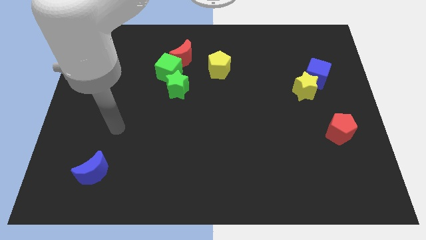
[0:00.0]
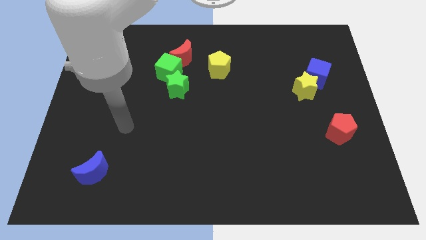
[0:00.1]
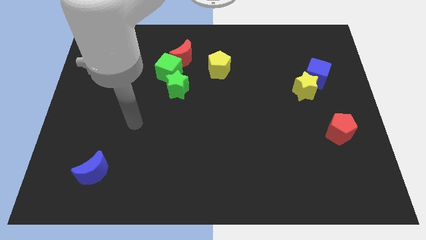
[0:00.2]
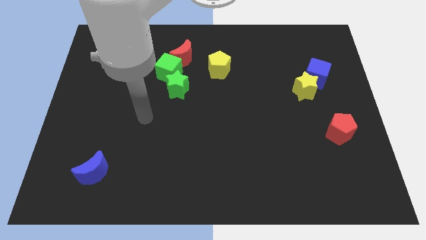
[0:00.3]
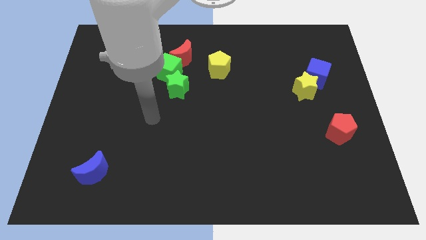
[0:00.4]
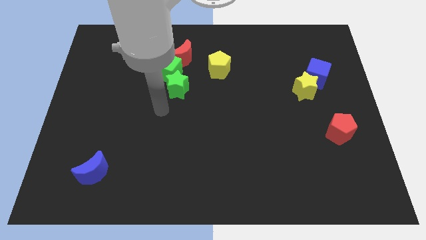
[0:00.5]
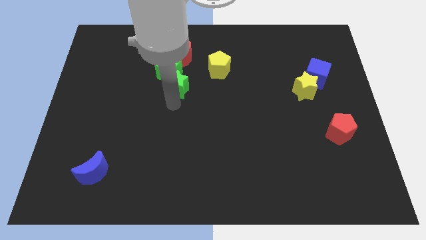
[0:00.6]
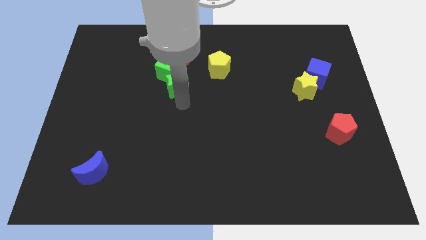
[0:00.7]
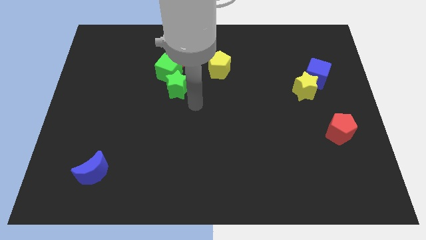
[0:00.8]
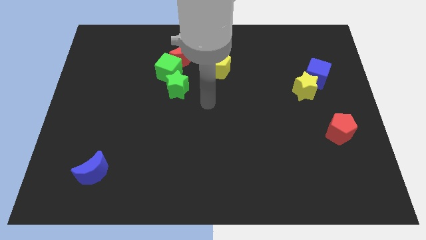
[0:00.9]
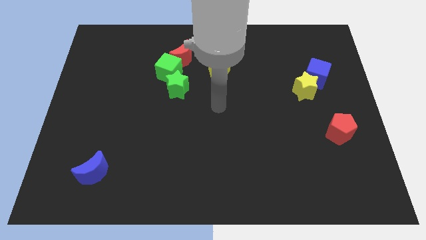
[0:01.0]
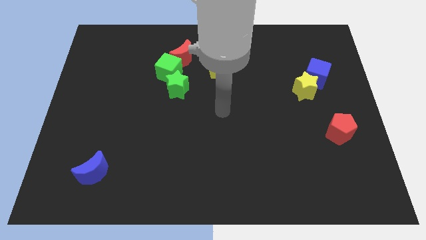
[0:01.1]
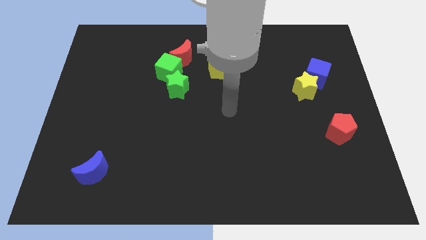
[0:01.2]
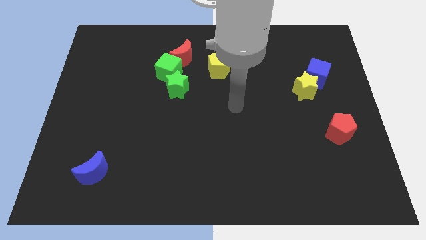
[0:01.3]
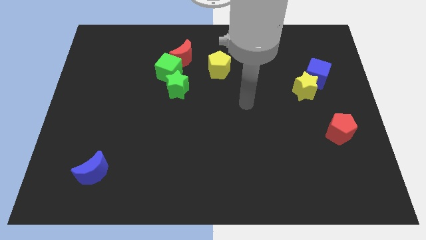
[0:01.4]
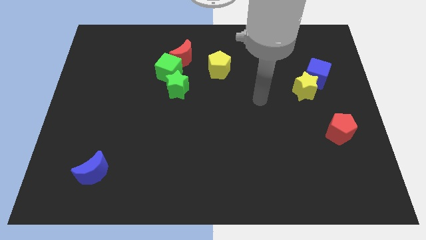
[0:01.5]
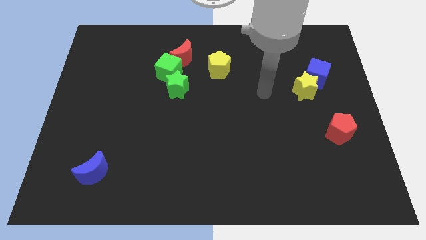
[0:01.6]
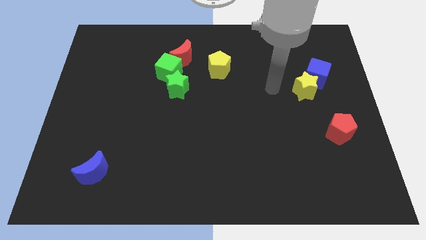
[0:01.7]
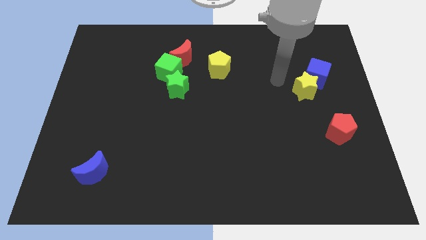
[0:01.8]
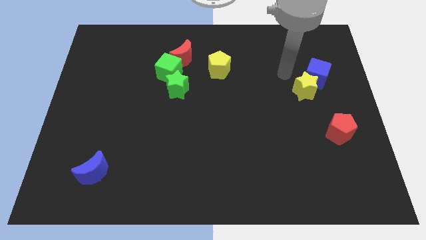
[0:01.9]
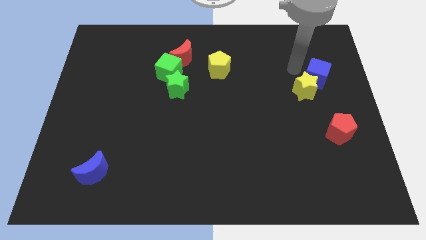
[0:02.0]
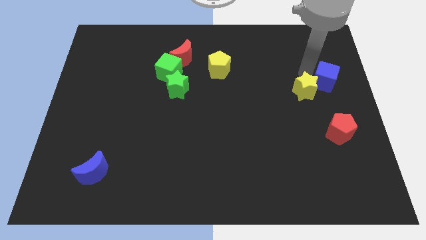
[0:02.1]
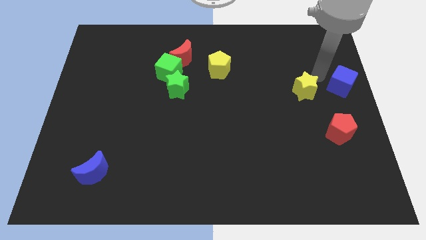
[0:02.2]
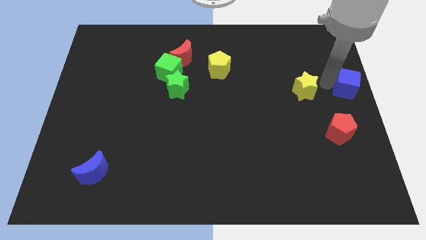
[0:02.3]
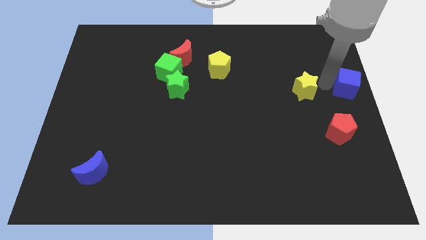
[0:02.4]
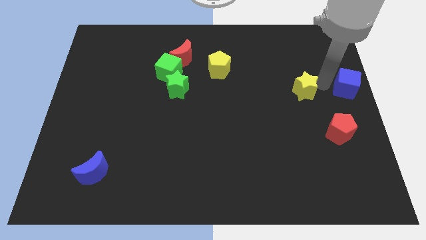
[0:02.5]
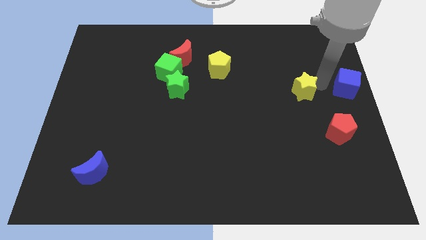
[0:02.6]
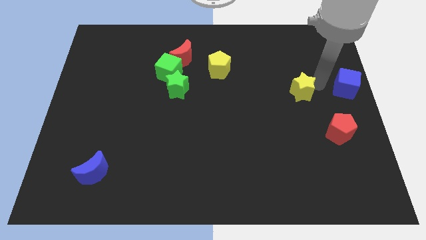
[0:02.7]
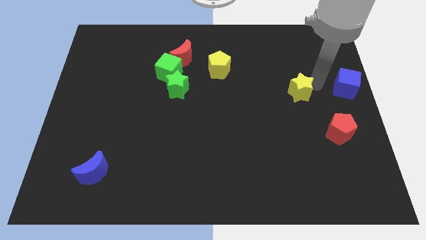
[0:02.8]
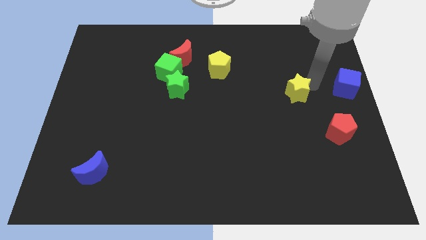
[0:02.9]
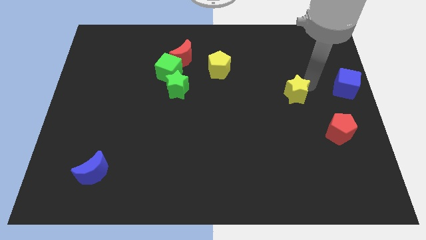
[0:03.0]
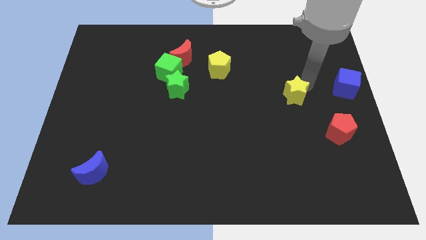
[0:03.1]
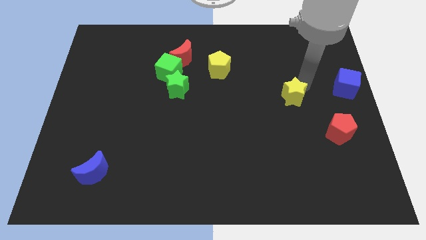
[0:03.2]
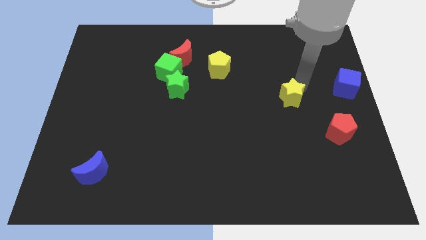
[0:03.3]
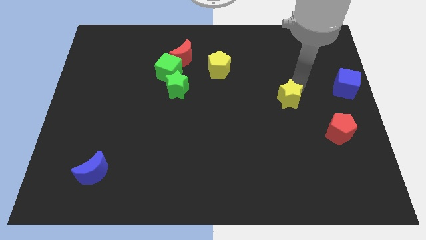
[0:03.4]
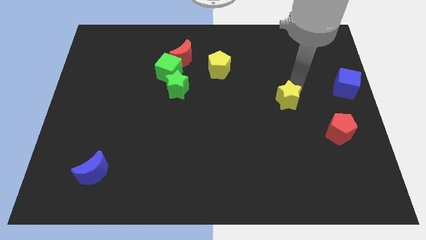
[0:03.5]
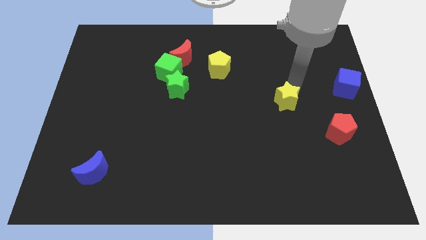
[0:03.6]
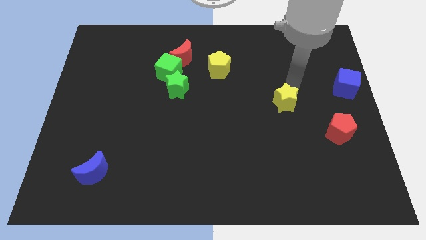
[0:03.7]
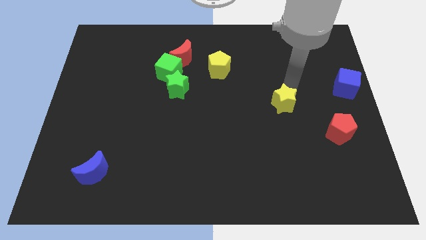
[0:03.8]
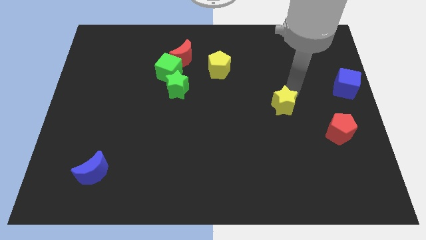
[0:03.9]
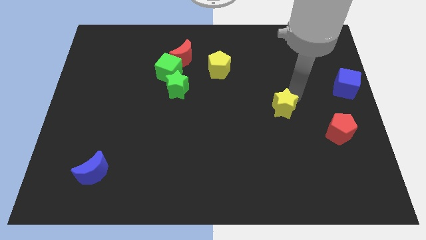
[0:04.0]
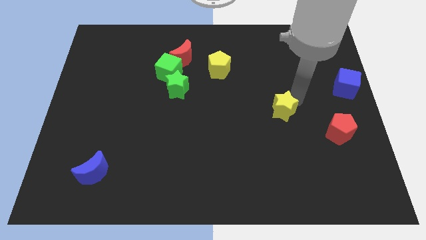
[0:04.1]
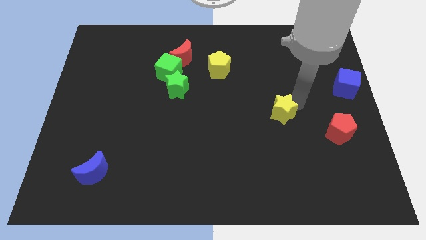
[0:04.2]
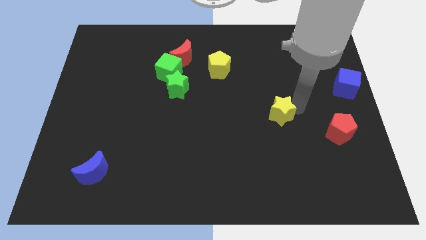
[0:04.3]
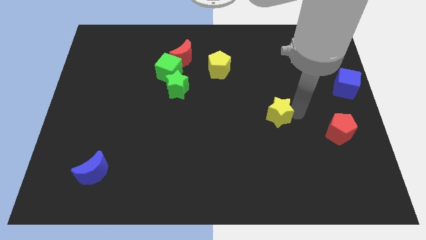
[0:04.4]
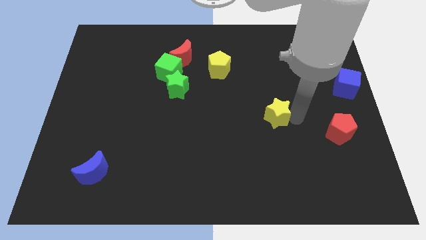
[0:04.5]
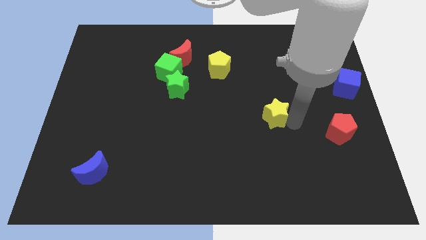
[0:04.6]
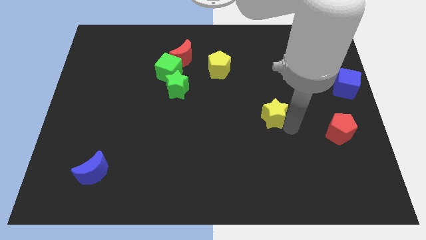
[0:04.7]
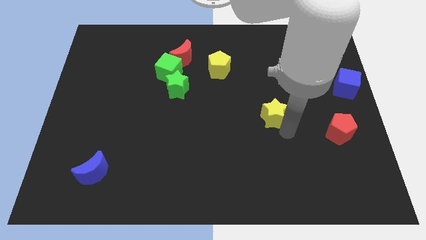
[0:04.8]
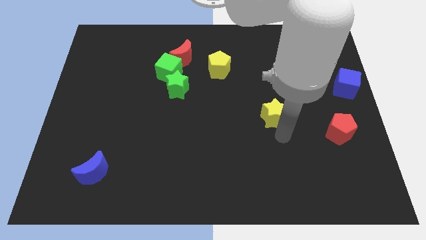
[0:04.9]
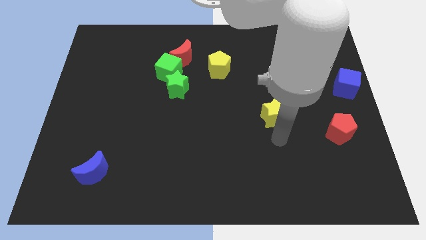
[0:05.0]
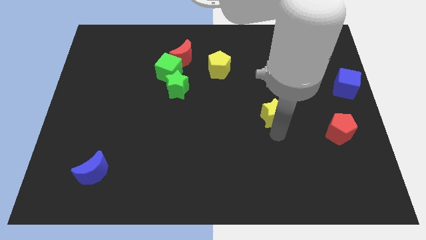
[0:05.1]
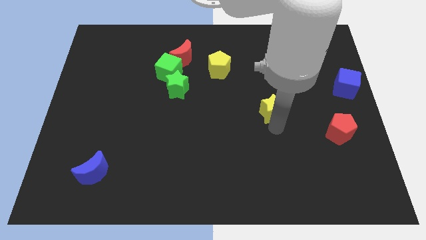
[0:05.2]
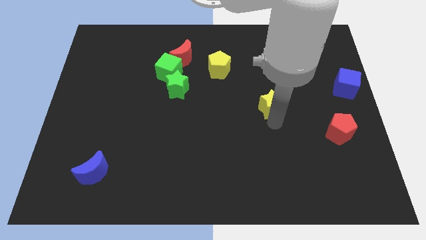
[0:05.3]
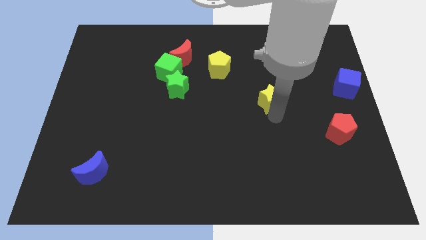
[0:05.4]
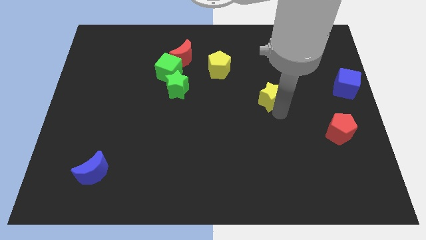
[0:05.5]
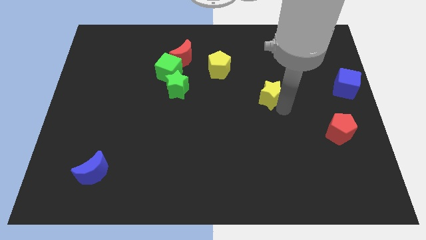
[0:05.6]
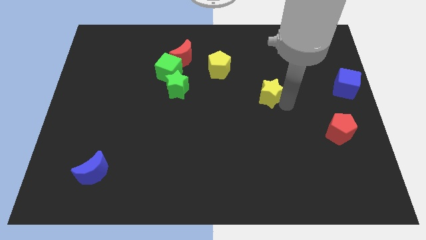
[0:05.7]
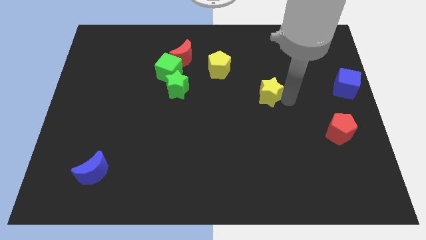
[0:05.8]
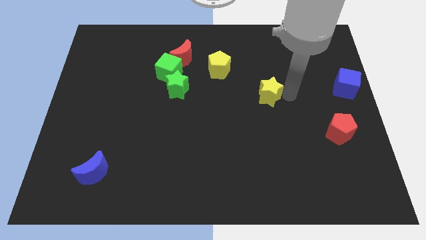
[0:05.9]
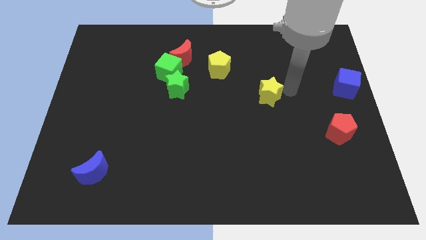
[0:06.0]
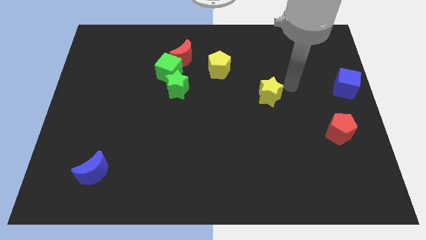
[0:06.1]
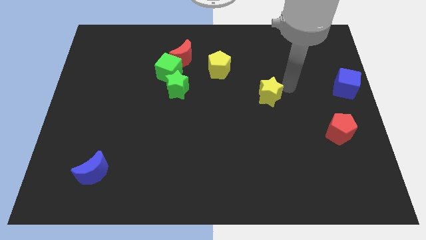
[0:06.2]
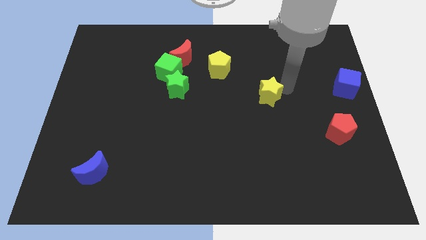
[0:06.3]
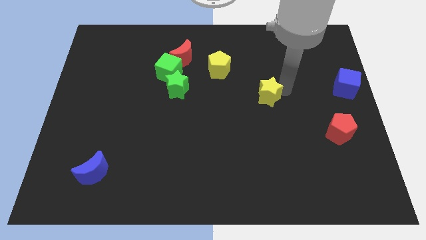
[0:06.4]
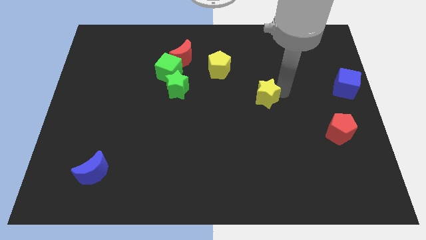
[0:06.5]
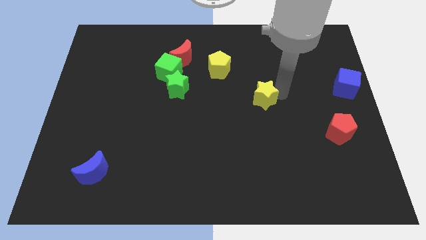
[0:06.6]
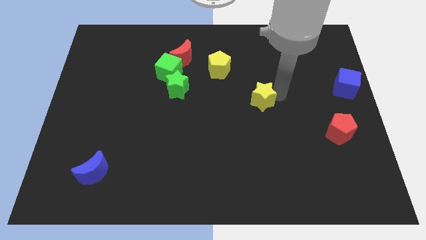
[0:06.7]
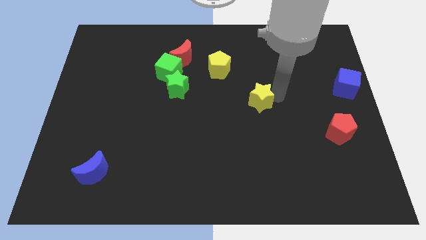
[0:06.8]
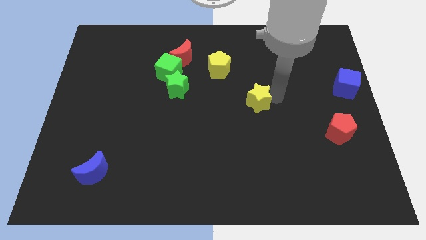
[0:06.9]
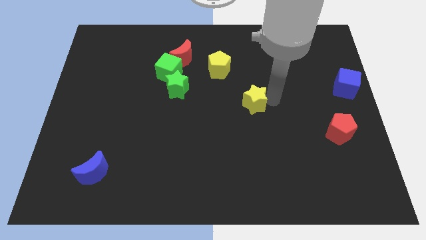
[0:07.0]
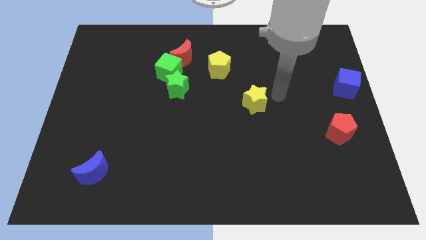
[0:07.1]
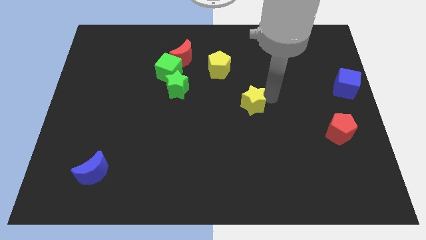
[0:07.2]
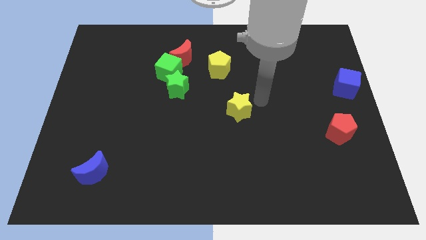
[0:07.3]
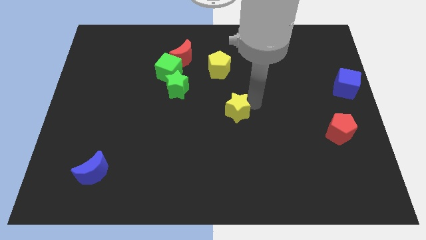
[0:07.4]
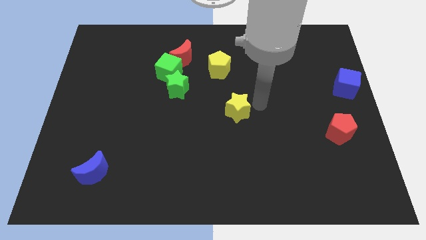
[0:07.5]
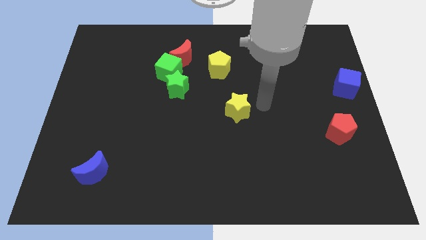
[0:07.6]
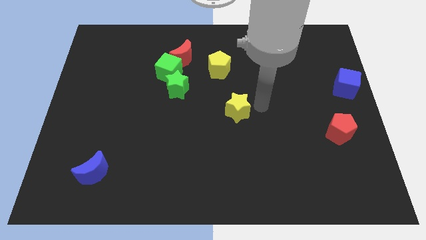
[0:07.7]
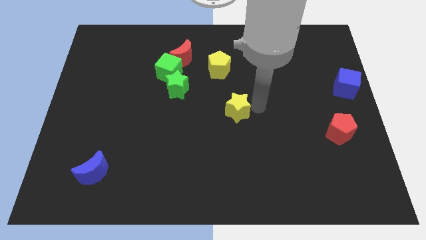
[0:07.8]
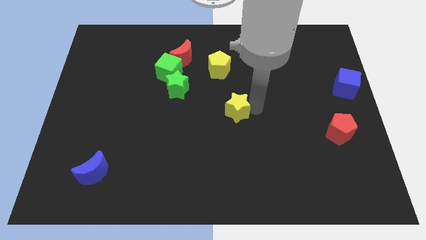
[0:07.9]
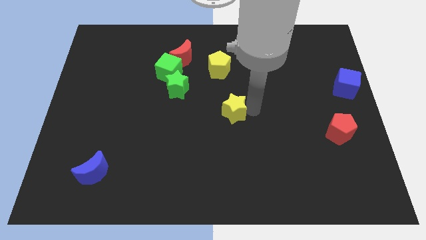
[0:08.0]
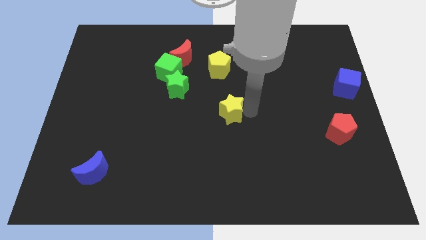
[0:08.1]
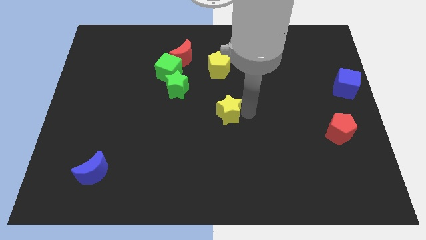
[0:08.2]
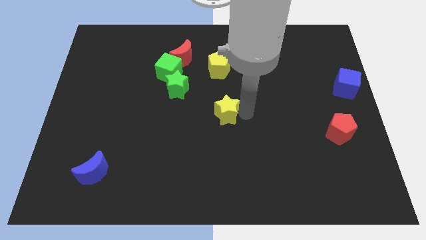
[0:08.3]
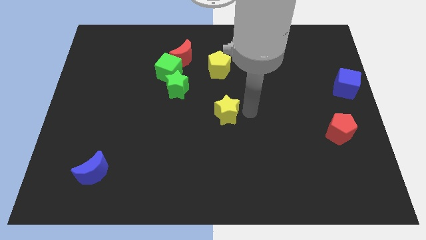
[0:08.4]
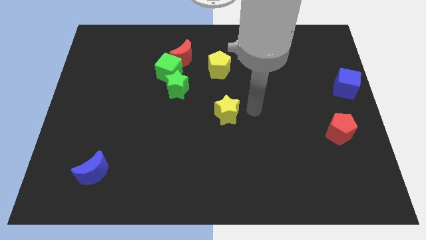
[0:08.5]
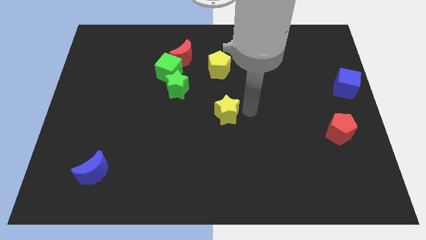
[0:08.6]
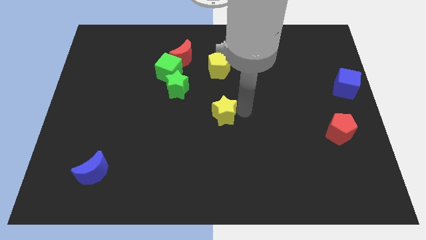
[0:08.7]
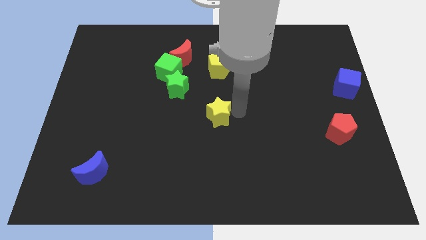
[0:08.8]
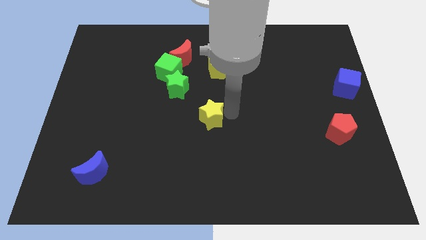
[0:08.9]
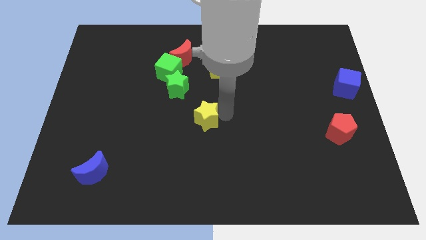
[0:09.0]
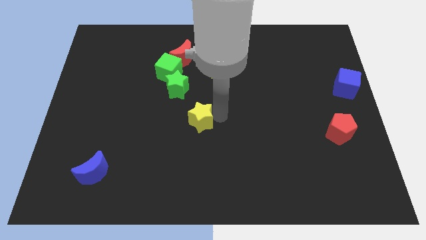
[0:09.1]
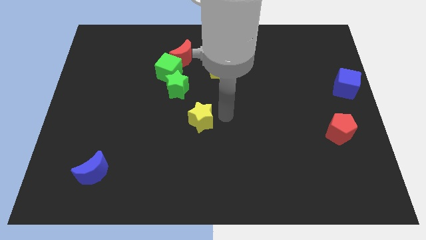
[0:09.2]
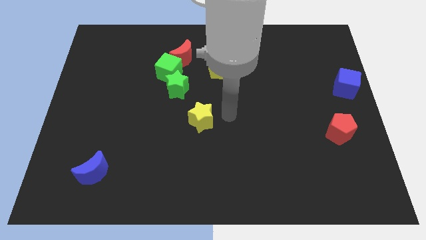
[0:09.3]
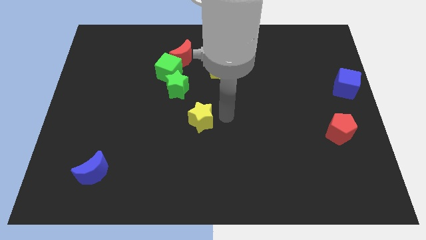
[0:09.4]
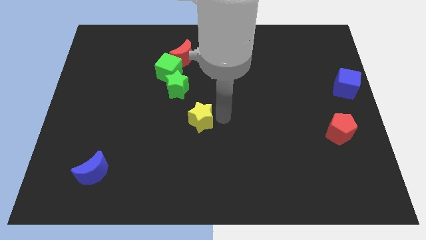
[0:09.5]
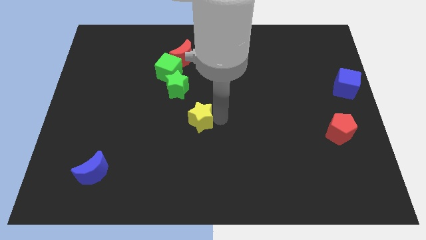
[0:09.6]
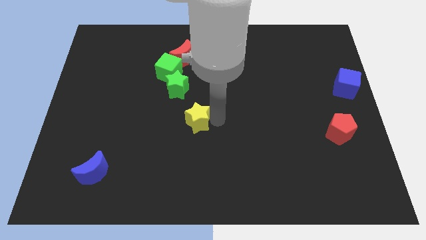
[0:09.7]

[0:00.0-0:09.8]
put the yellow star to the bottom of the green star
